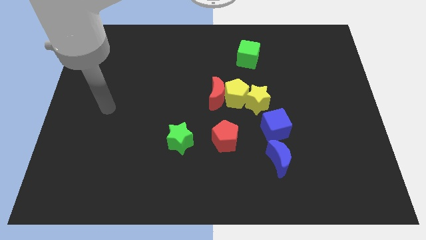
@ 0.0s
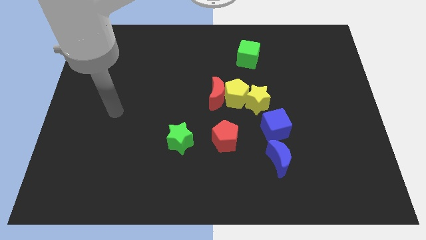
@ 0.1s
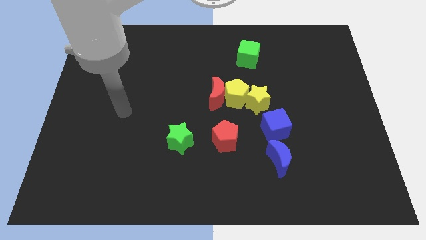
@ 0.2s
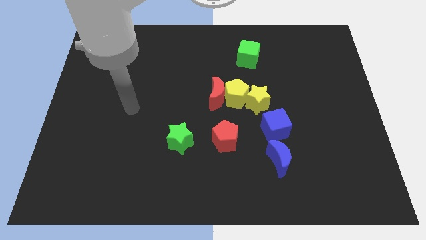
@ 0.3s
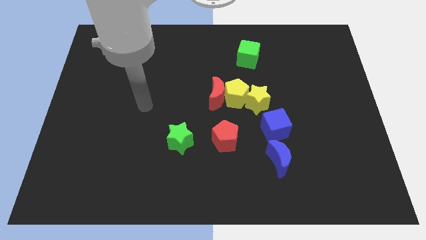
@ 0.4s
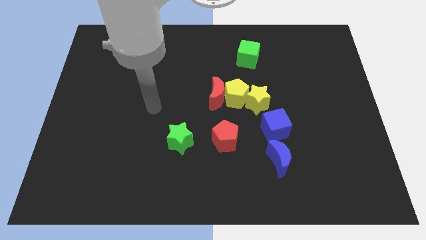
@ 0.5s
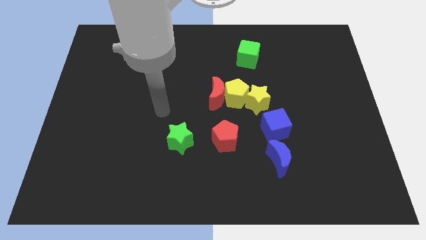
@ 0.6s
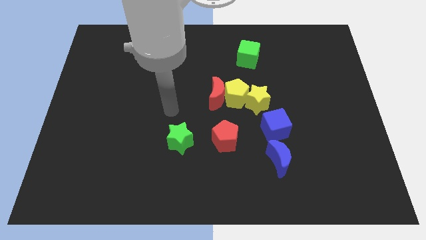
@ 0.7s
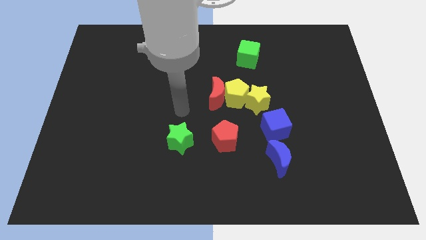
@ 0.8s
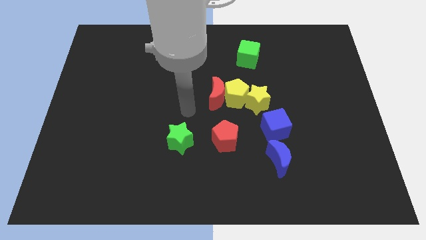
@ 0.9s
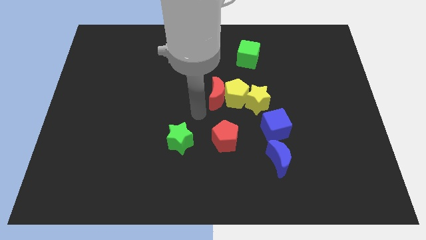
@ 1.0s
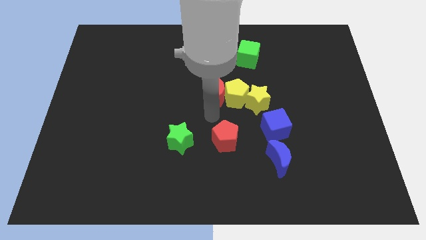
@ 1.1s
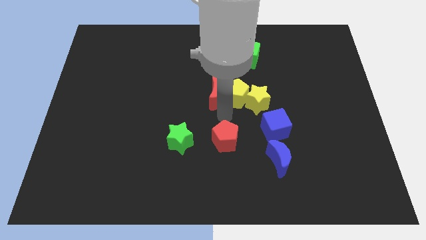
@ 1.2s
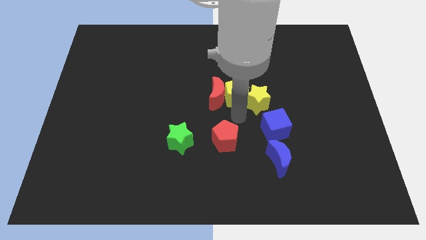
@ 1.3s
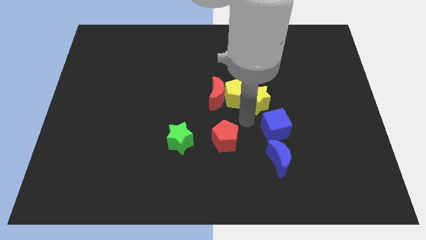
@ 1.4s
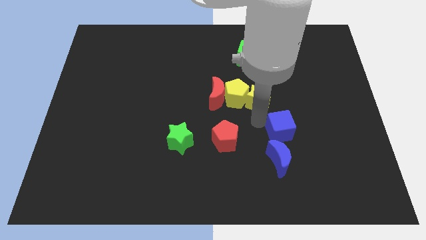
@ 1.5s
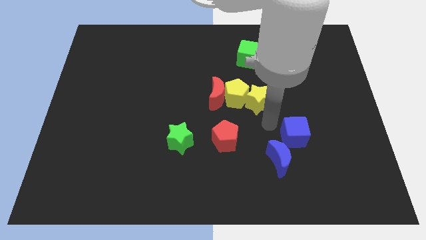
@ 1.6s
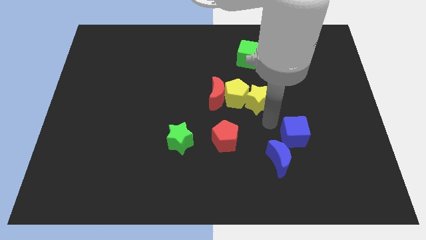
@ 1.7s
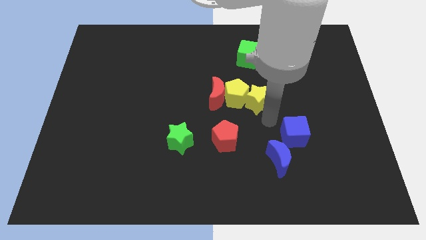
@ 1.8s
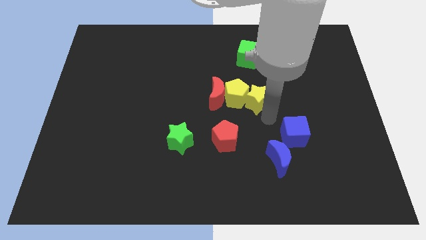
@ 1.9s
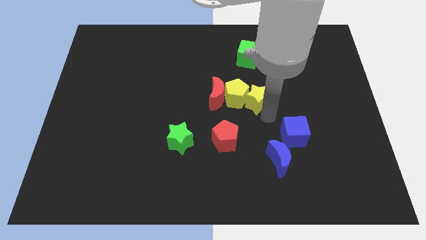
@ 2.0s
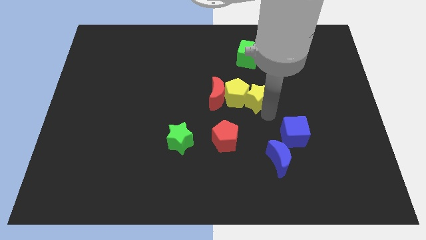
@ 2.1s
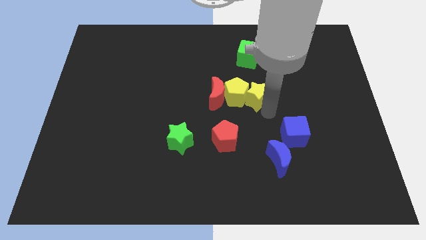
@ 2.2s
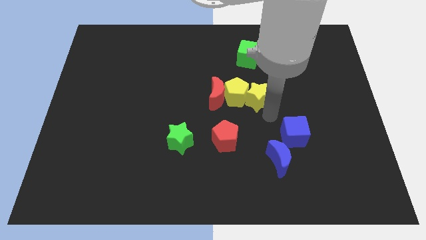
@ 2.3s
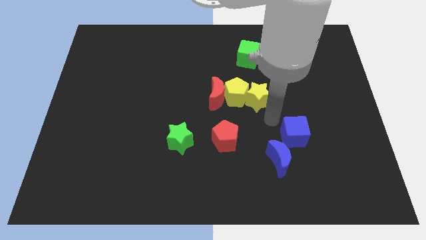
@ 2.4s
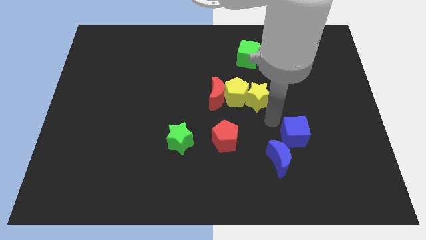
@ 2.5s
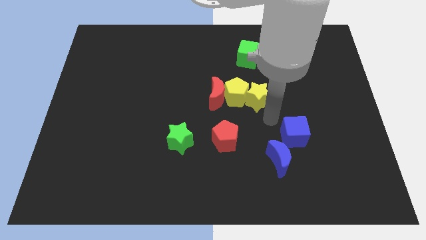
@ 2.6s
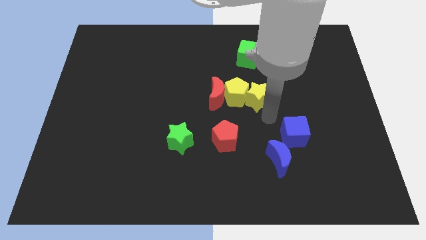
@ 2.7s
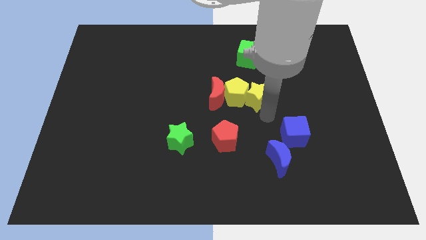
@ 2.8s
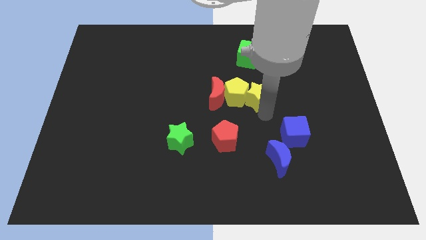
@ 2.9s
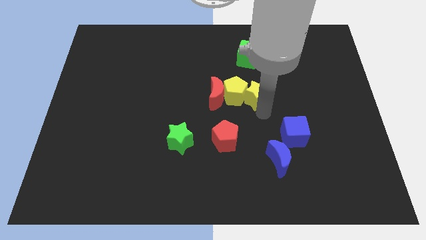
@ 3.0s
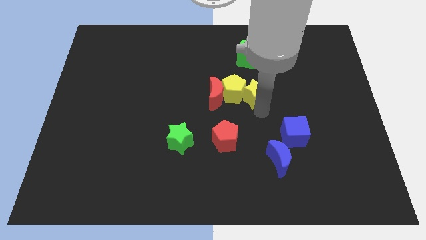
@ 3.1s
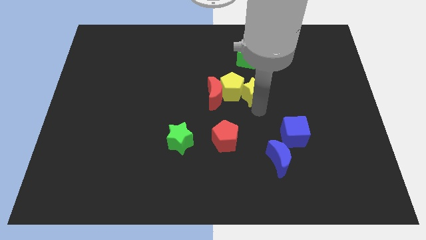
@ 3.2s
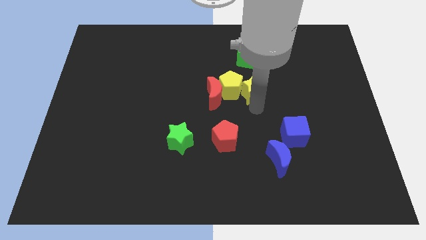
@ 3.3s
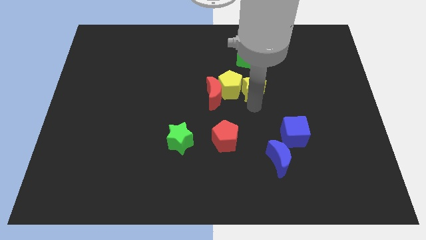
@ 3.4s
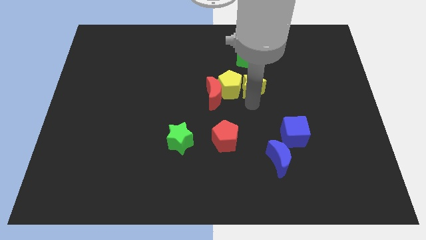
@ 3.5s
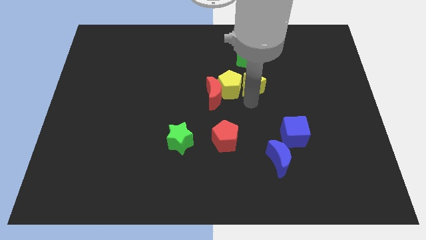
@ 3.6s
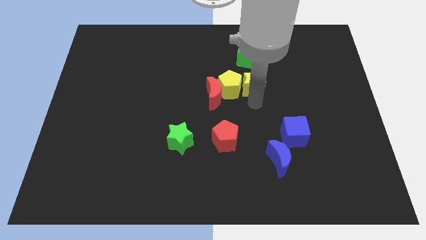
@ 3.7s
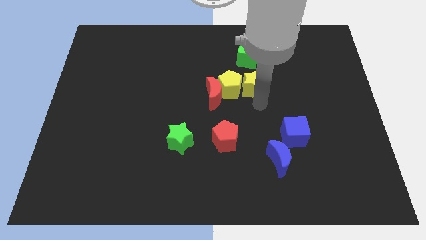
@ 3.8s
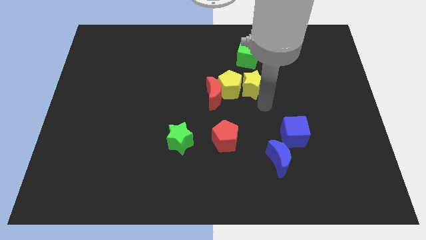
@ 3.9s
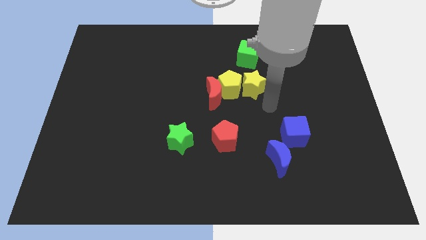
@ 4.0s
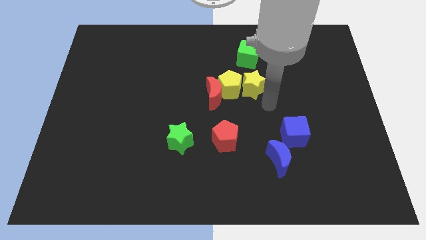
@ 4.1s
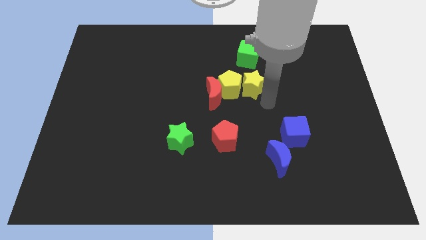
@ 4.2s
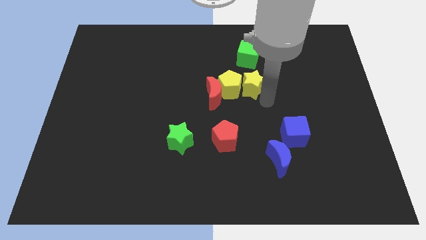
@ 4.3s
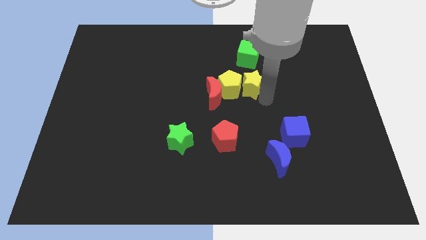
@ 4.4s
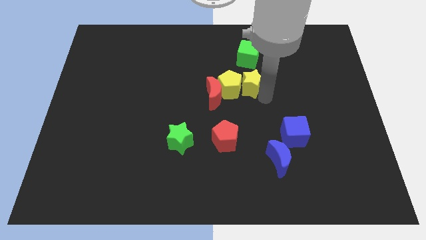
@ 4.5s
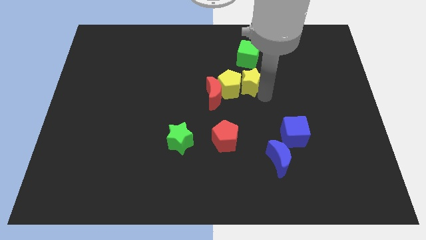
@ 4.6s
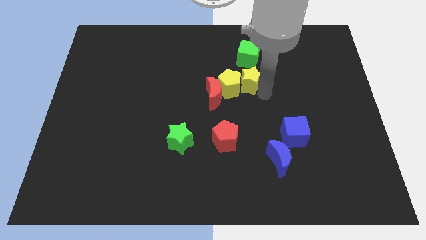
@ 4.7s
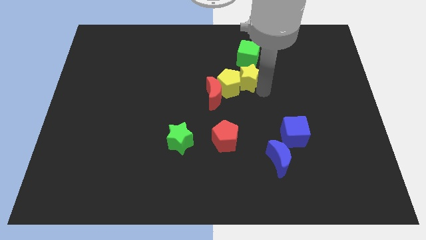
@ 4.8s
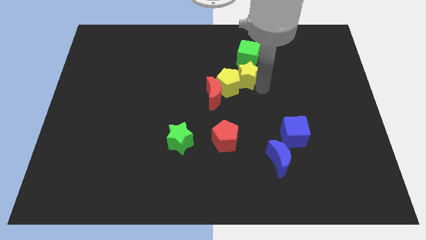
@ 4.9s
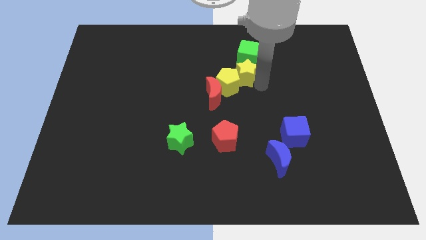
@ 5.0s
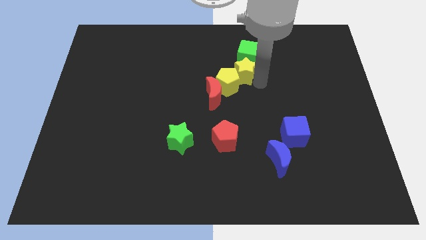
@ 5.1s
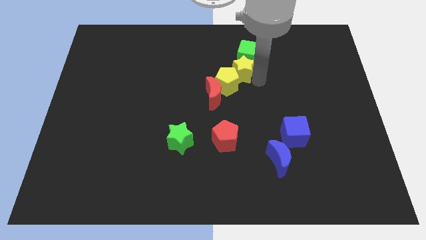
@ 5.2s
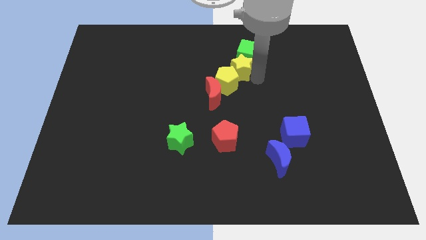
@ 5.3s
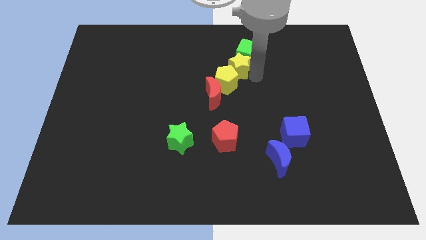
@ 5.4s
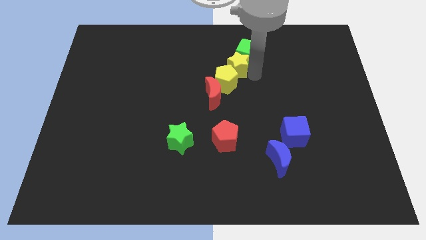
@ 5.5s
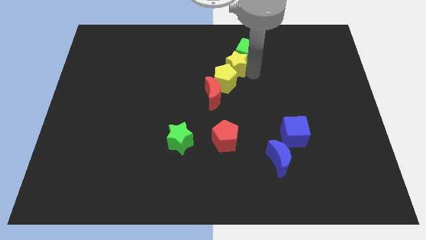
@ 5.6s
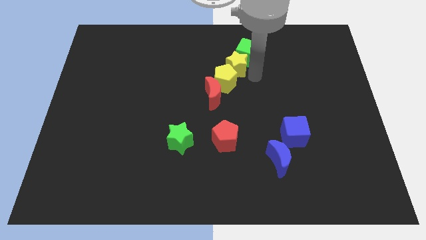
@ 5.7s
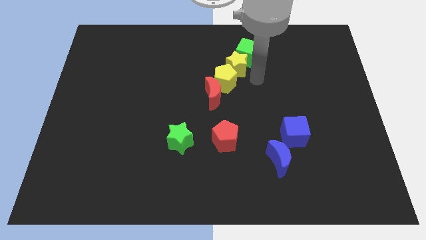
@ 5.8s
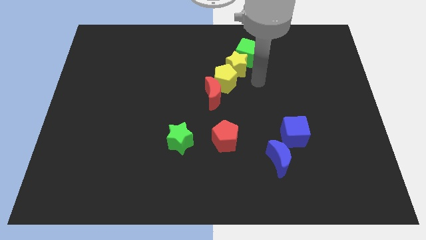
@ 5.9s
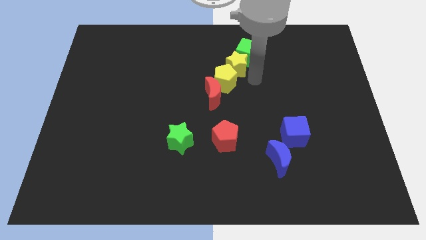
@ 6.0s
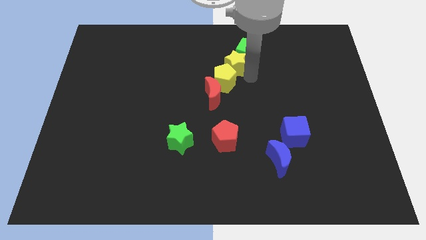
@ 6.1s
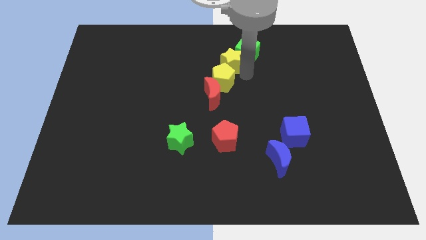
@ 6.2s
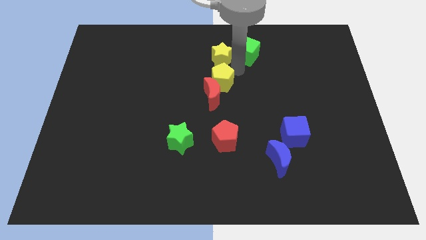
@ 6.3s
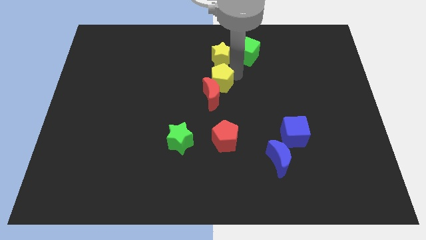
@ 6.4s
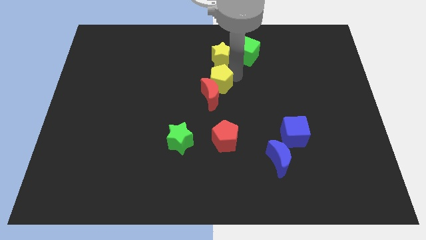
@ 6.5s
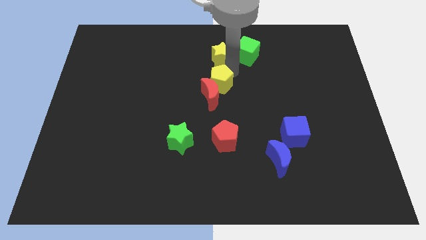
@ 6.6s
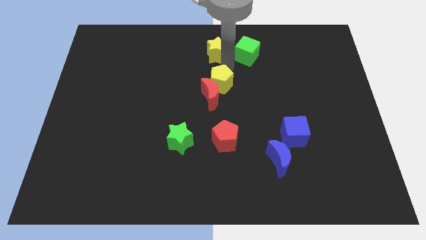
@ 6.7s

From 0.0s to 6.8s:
put the yellow star to the top
